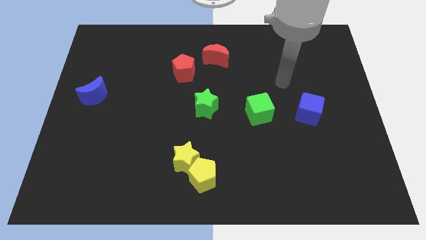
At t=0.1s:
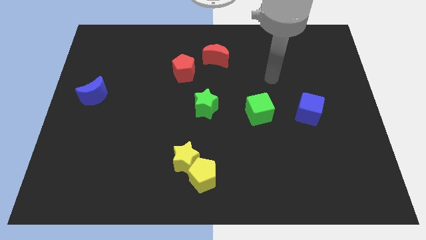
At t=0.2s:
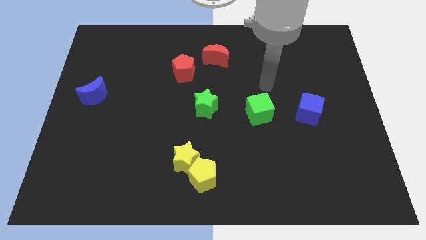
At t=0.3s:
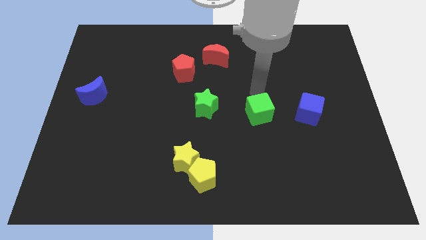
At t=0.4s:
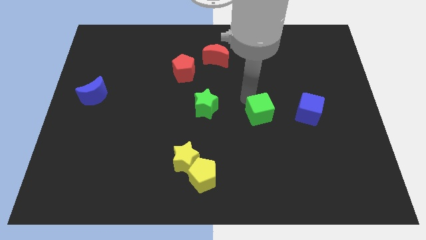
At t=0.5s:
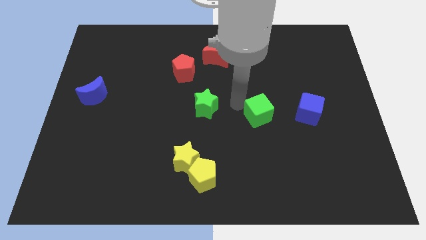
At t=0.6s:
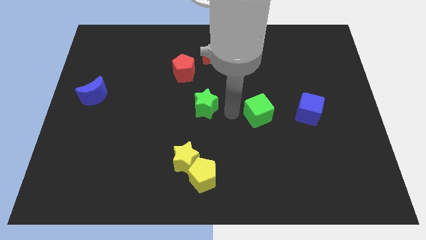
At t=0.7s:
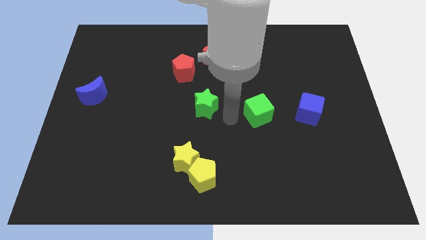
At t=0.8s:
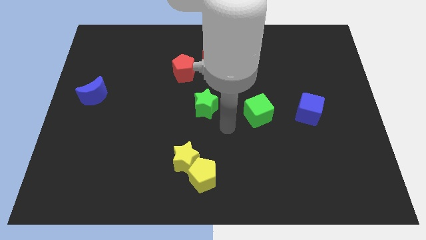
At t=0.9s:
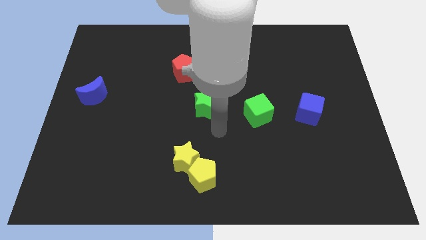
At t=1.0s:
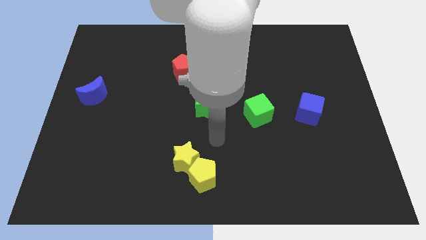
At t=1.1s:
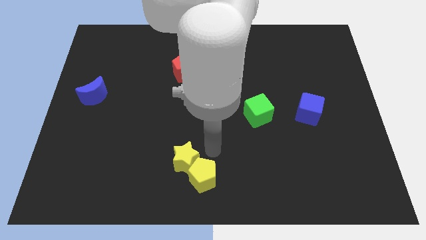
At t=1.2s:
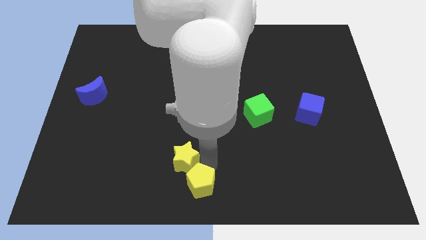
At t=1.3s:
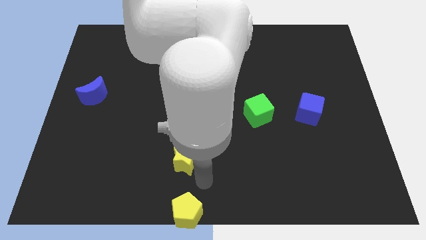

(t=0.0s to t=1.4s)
pull the yellow star apart from the yellow pentagon

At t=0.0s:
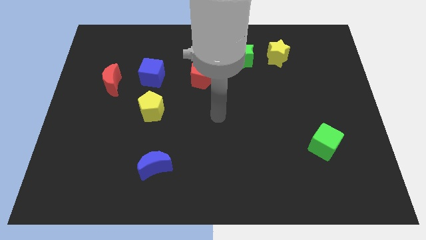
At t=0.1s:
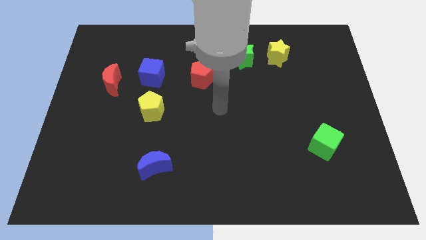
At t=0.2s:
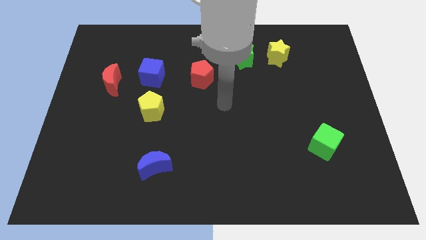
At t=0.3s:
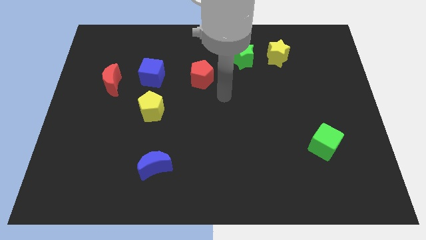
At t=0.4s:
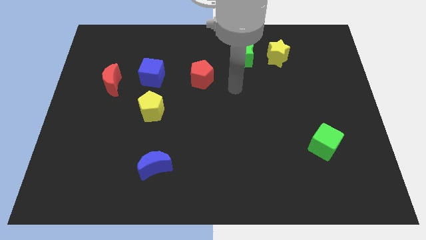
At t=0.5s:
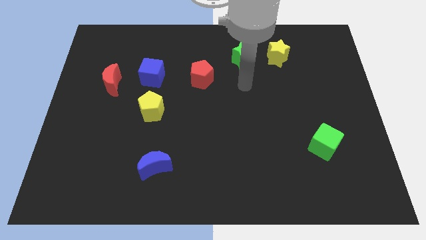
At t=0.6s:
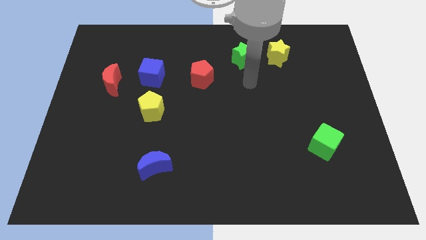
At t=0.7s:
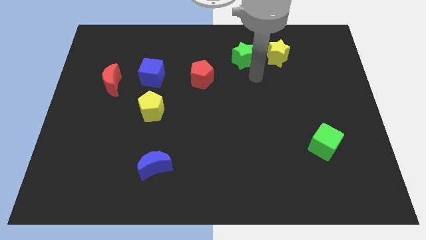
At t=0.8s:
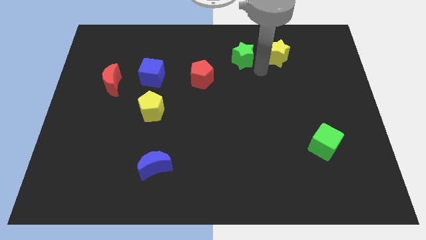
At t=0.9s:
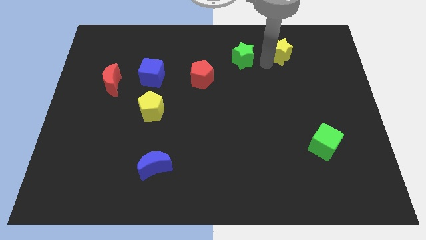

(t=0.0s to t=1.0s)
separate the green star from the yellow star

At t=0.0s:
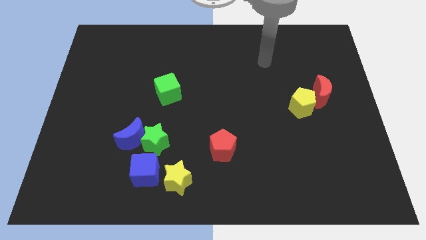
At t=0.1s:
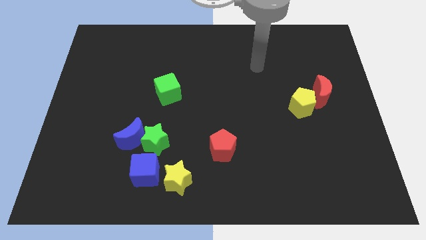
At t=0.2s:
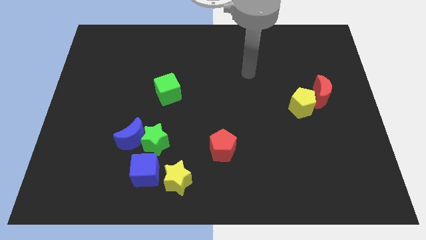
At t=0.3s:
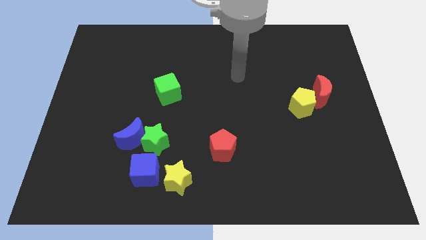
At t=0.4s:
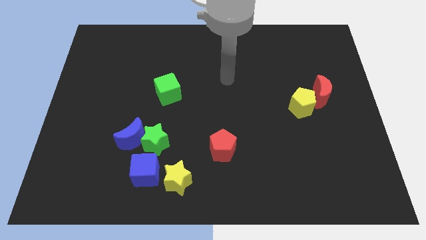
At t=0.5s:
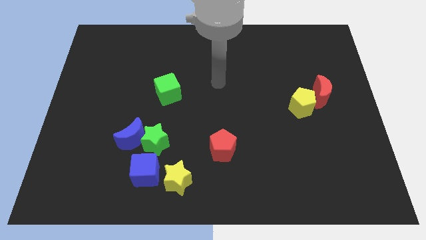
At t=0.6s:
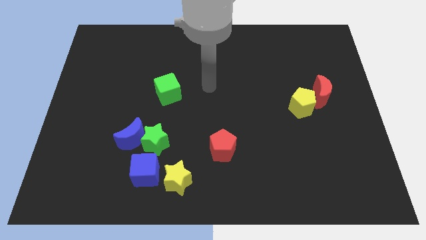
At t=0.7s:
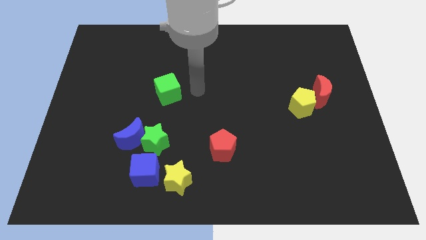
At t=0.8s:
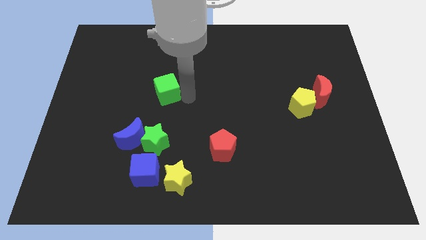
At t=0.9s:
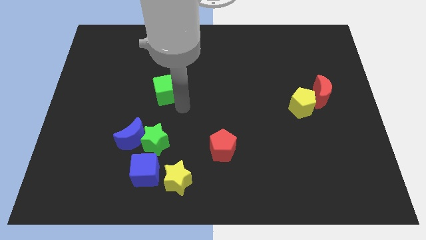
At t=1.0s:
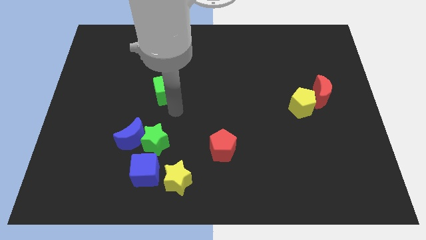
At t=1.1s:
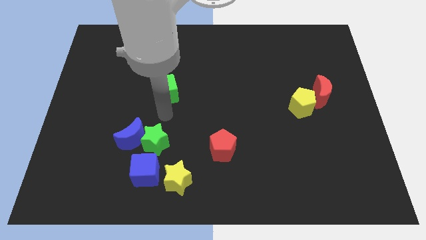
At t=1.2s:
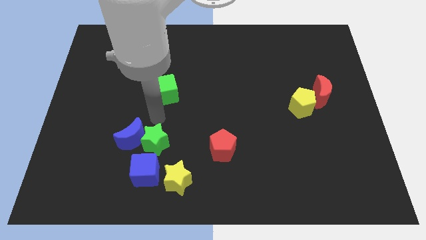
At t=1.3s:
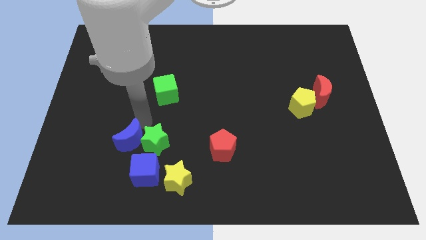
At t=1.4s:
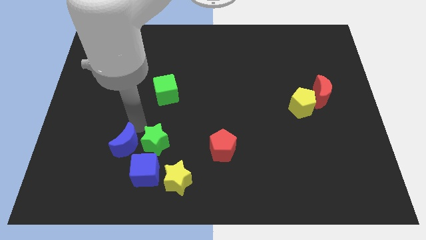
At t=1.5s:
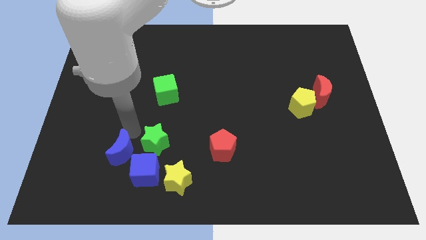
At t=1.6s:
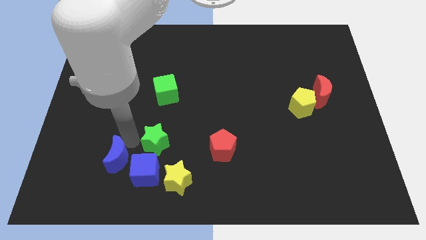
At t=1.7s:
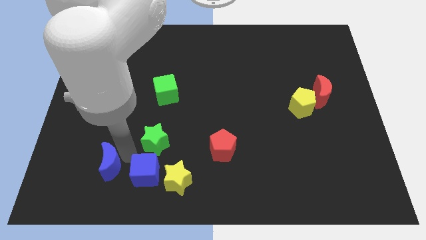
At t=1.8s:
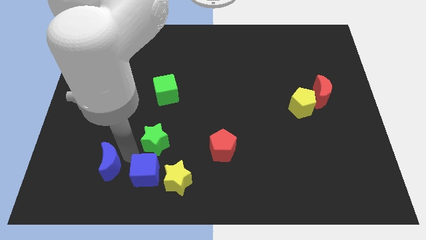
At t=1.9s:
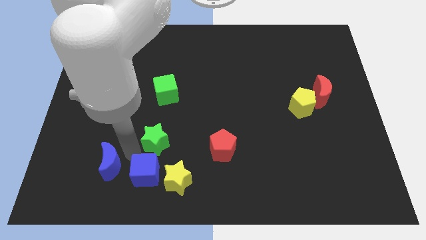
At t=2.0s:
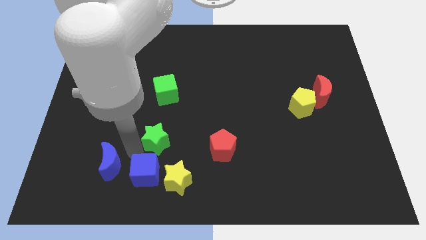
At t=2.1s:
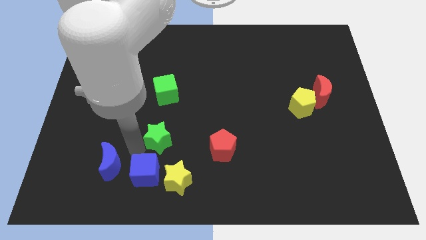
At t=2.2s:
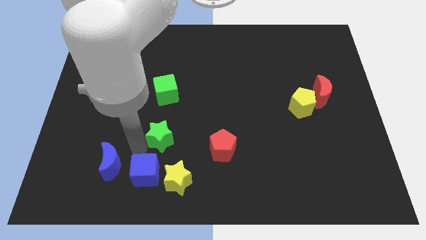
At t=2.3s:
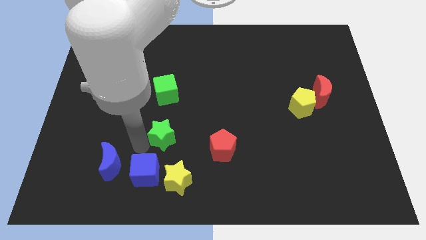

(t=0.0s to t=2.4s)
move the green star away from the blue moon and blue cube

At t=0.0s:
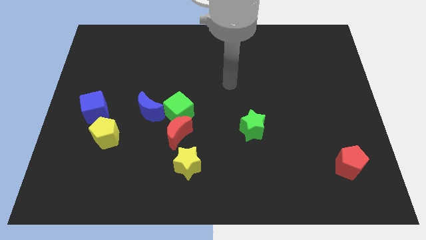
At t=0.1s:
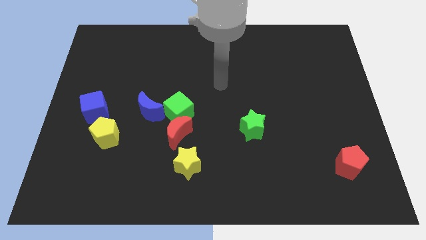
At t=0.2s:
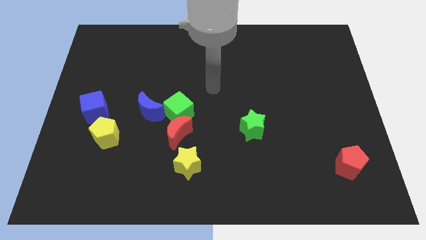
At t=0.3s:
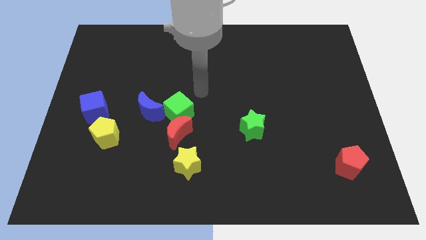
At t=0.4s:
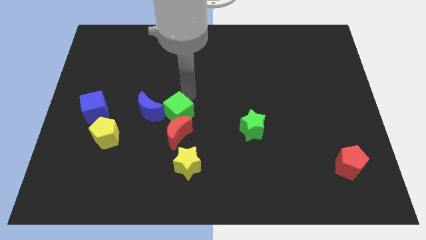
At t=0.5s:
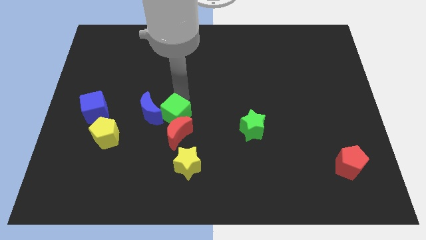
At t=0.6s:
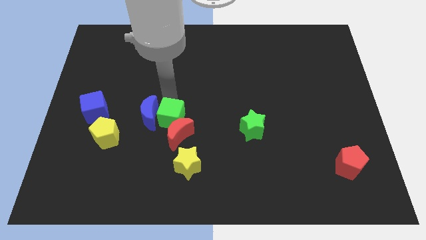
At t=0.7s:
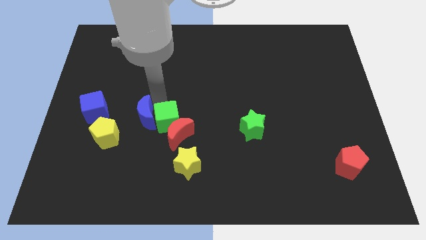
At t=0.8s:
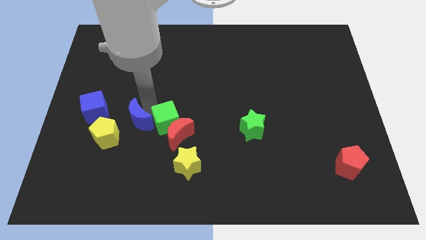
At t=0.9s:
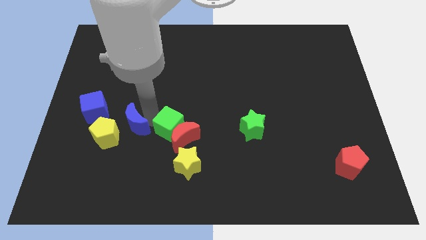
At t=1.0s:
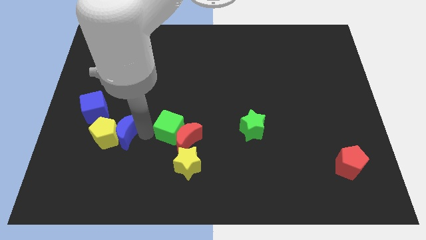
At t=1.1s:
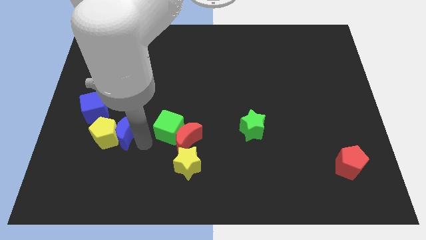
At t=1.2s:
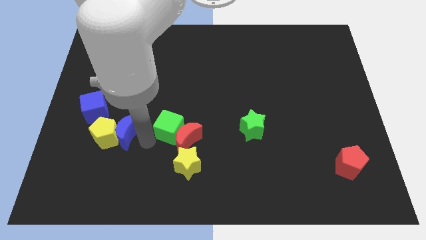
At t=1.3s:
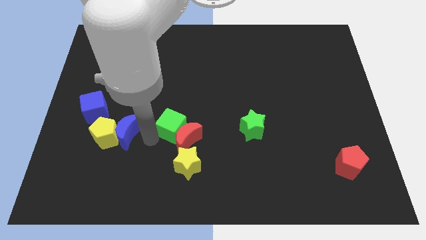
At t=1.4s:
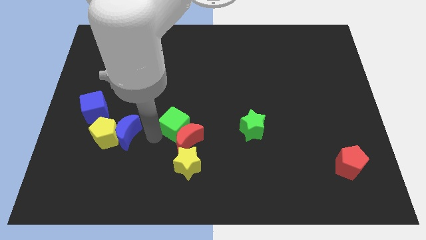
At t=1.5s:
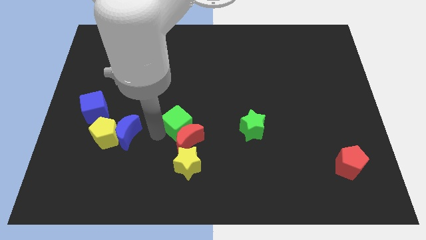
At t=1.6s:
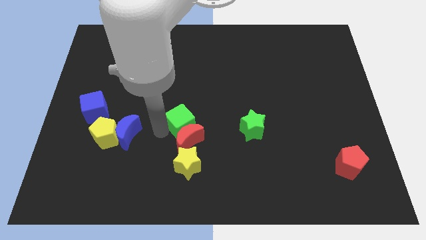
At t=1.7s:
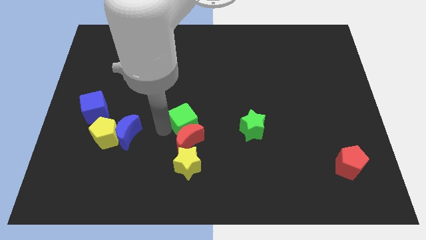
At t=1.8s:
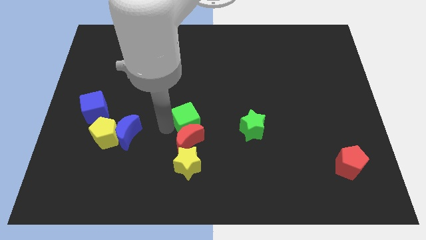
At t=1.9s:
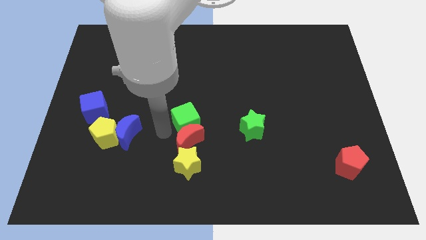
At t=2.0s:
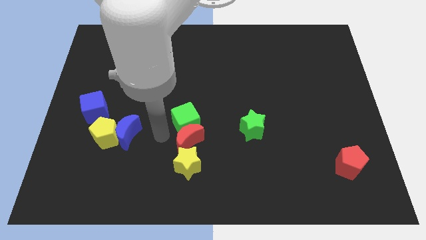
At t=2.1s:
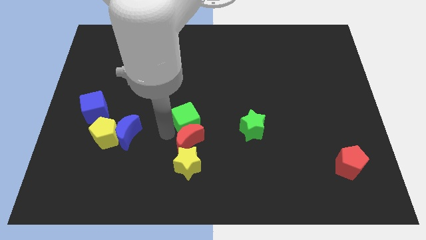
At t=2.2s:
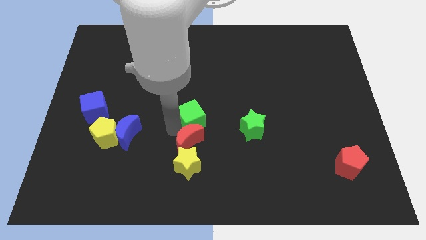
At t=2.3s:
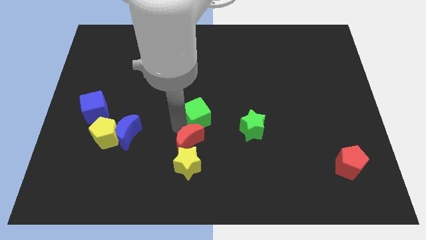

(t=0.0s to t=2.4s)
separate the green cube from the red moon and blue moon

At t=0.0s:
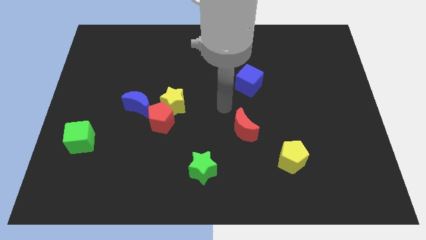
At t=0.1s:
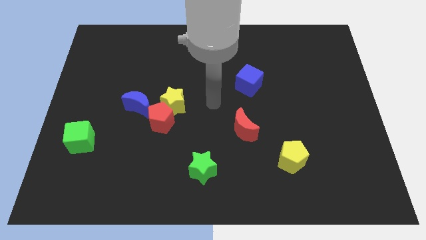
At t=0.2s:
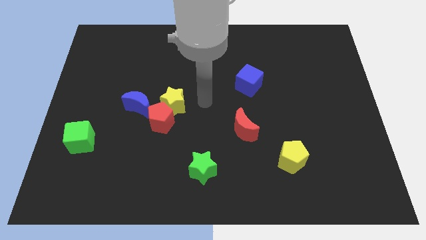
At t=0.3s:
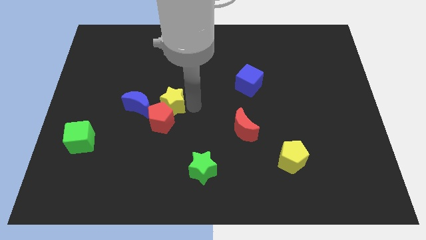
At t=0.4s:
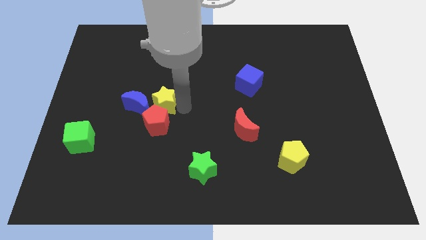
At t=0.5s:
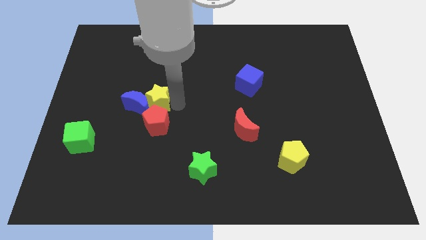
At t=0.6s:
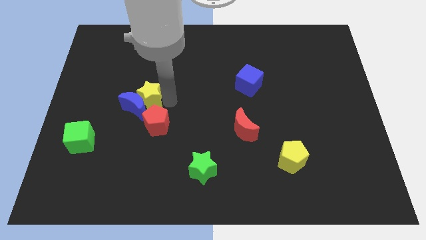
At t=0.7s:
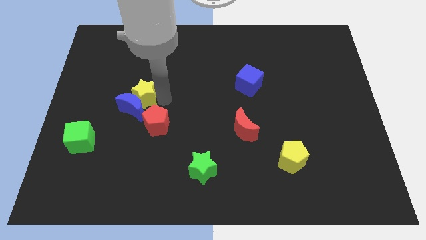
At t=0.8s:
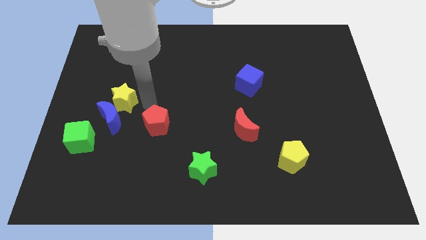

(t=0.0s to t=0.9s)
separate the red pentagon from the yellow star and blue moon

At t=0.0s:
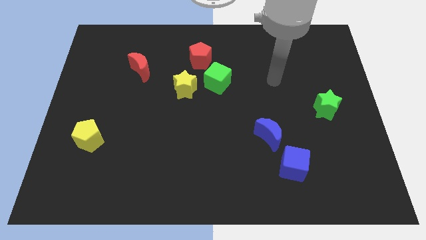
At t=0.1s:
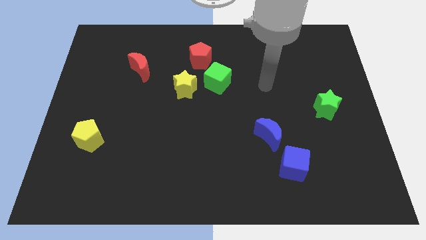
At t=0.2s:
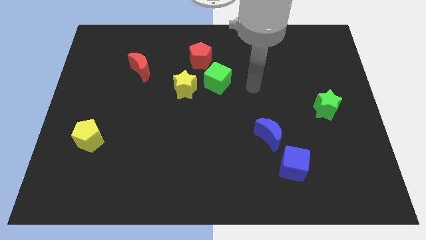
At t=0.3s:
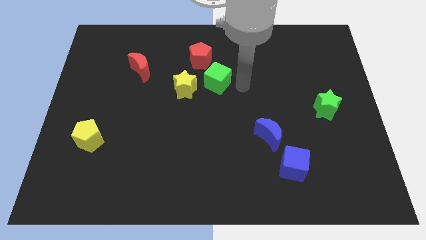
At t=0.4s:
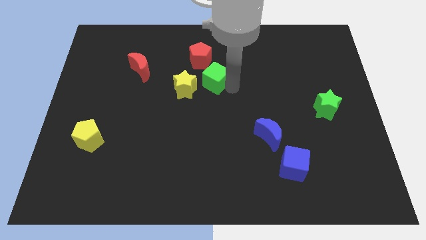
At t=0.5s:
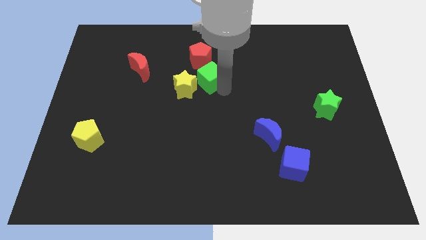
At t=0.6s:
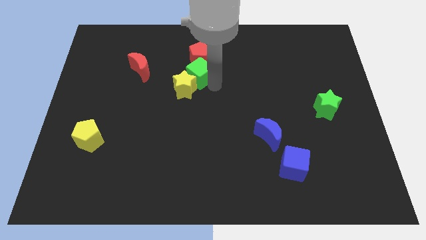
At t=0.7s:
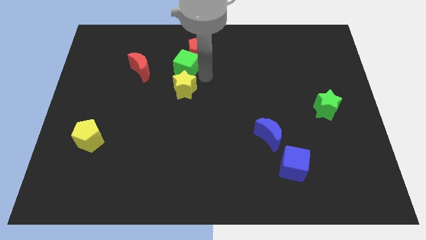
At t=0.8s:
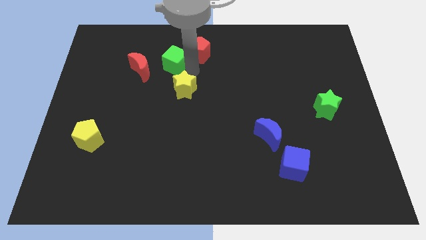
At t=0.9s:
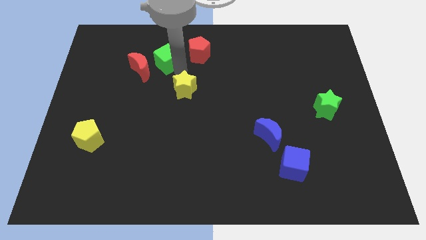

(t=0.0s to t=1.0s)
pull the yellow star apart from the green cube

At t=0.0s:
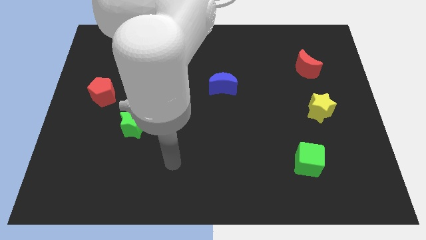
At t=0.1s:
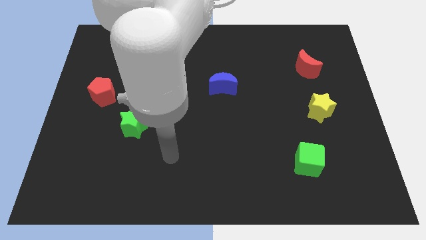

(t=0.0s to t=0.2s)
move the blue cube away from the green star

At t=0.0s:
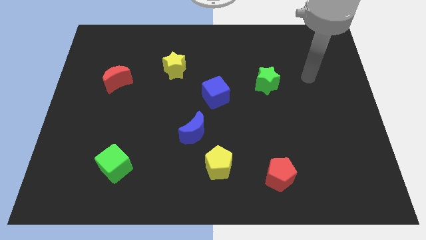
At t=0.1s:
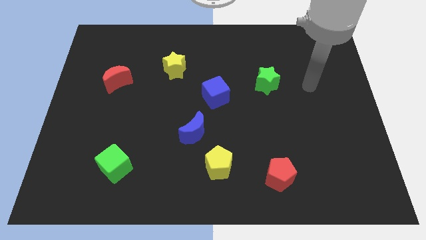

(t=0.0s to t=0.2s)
separate the blue moon from the yellow pentagon
